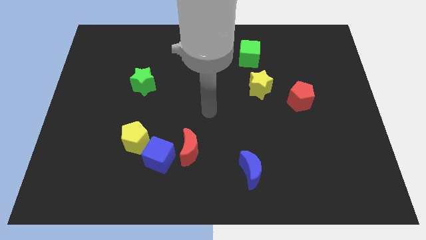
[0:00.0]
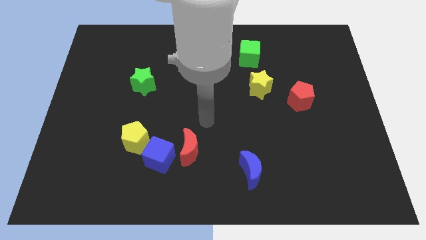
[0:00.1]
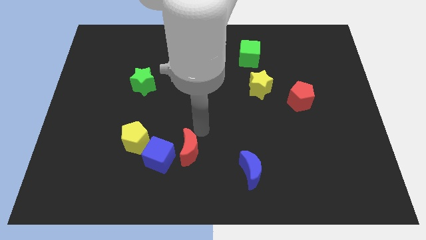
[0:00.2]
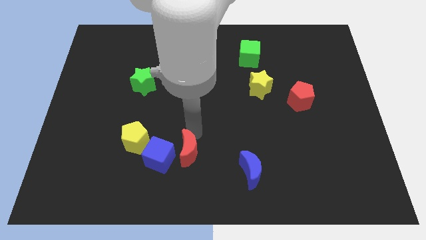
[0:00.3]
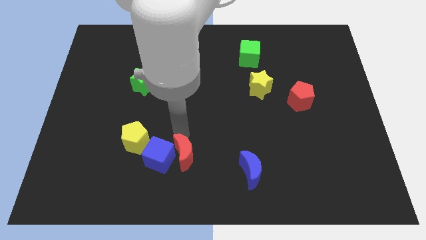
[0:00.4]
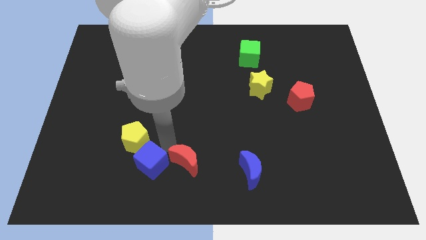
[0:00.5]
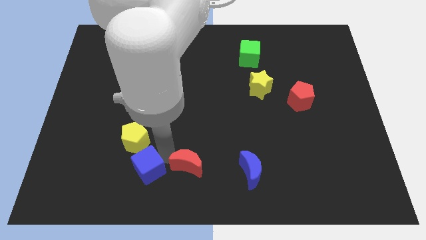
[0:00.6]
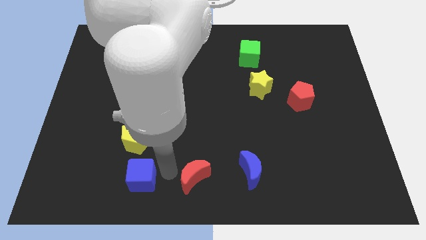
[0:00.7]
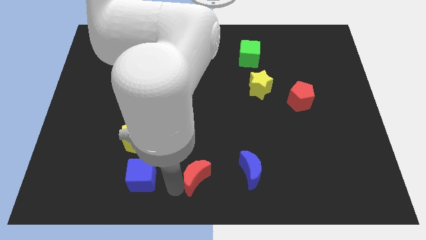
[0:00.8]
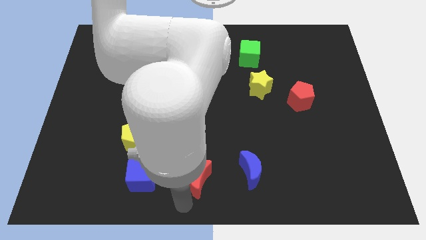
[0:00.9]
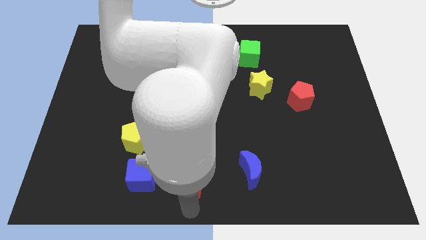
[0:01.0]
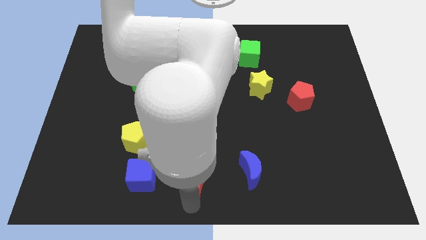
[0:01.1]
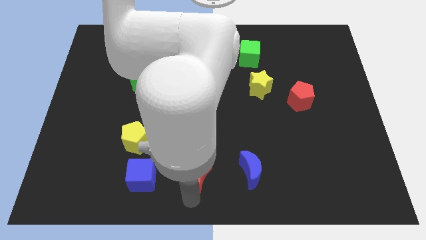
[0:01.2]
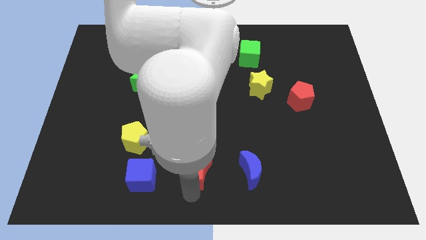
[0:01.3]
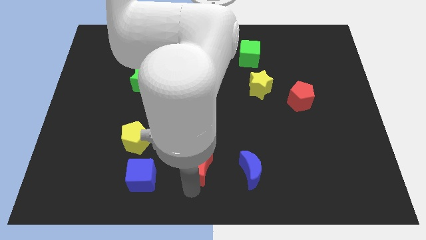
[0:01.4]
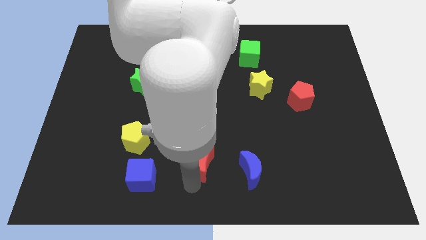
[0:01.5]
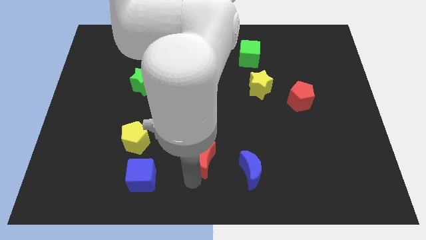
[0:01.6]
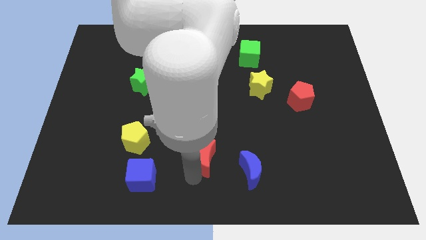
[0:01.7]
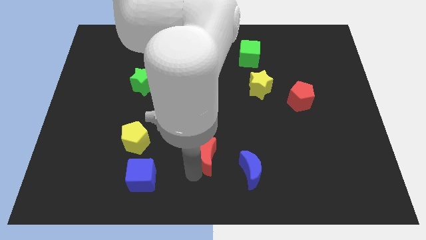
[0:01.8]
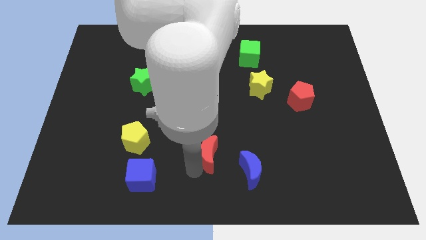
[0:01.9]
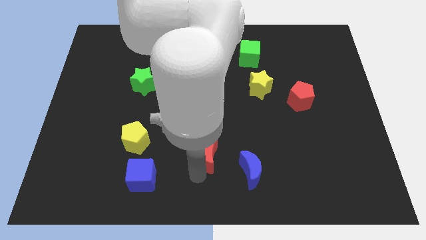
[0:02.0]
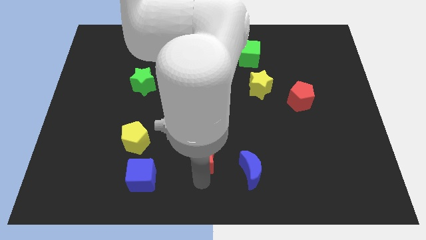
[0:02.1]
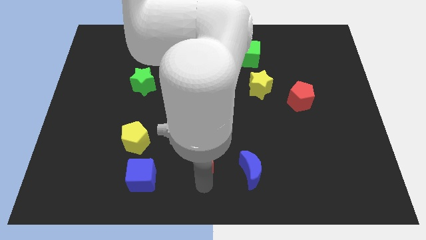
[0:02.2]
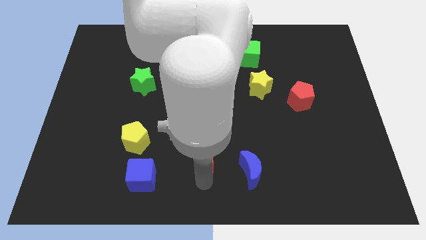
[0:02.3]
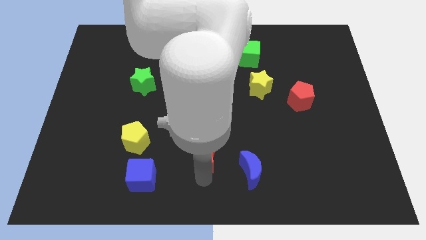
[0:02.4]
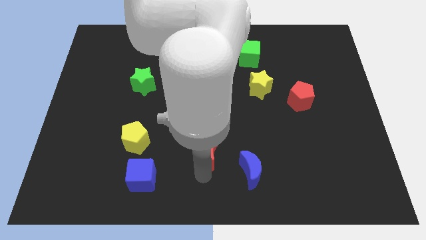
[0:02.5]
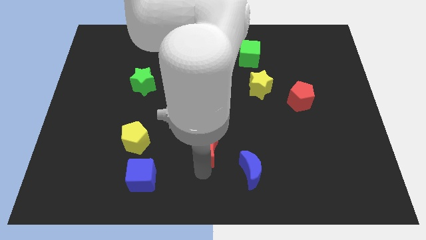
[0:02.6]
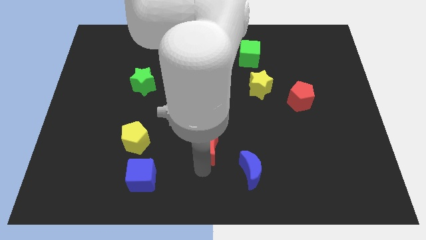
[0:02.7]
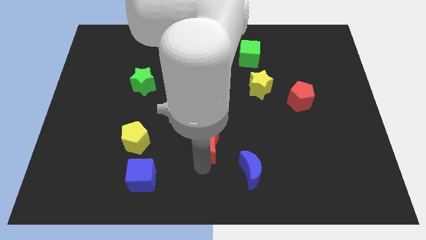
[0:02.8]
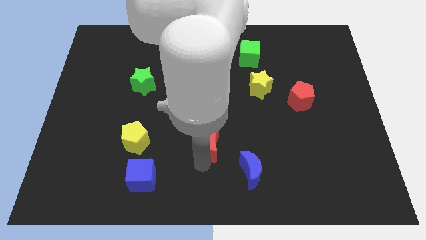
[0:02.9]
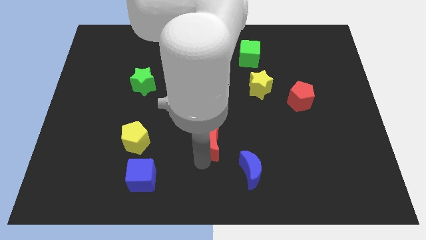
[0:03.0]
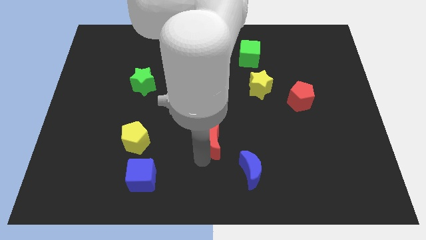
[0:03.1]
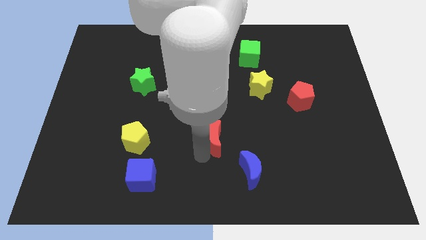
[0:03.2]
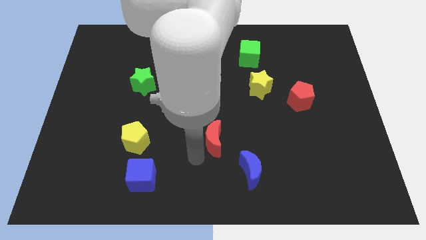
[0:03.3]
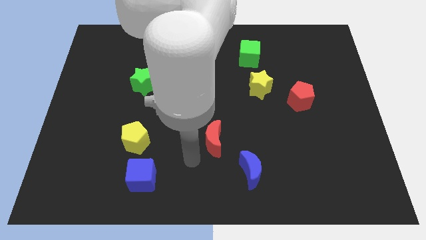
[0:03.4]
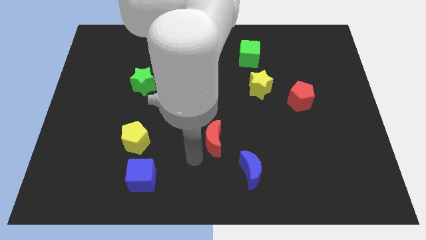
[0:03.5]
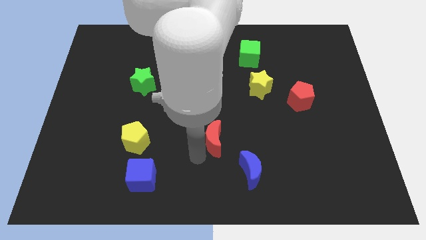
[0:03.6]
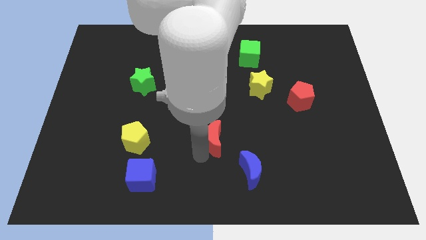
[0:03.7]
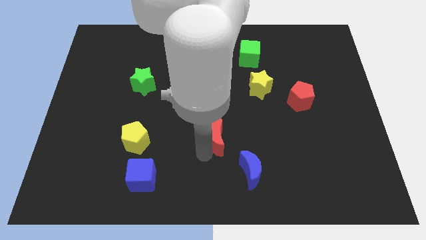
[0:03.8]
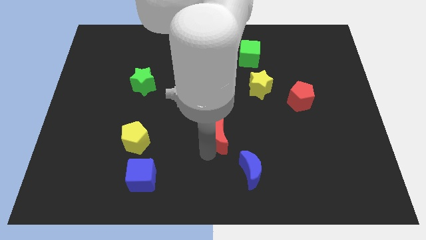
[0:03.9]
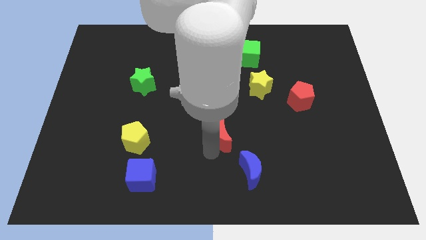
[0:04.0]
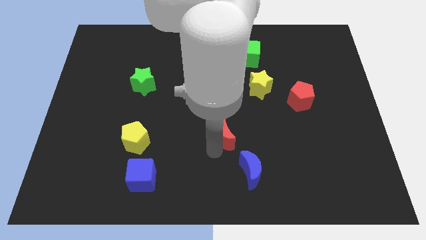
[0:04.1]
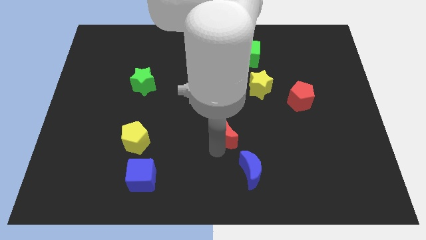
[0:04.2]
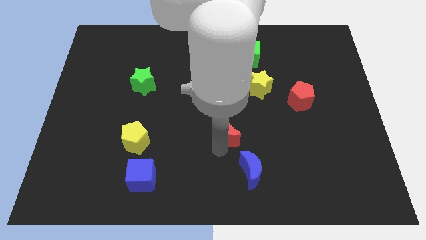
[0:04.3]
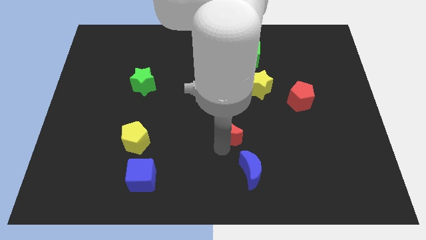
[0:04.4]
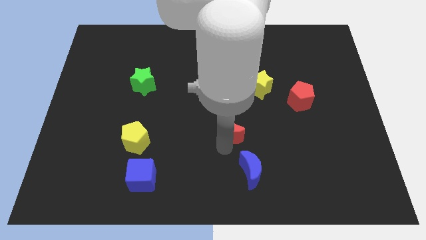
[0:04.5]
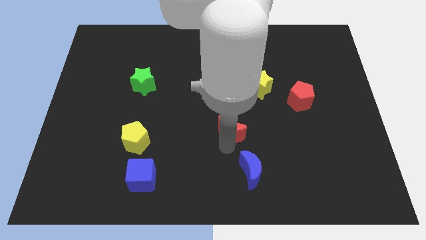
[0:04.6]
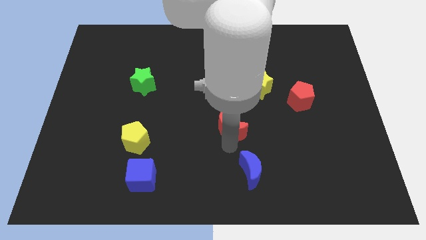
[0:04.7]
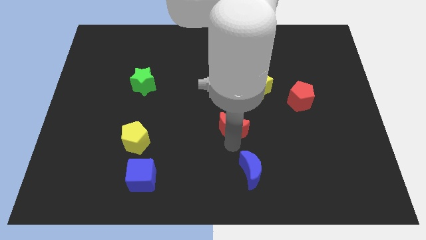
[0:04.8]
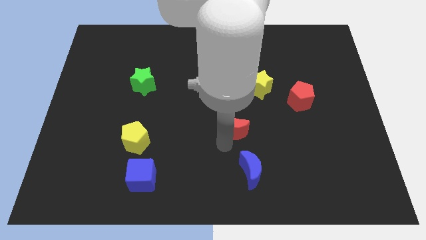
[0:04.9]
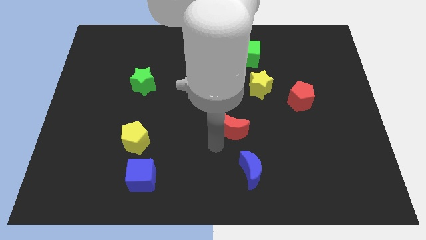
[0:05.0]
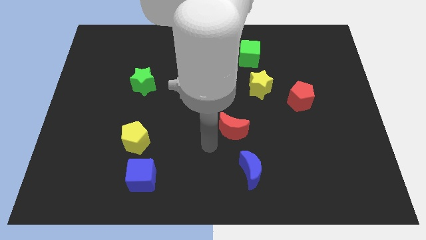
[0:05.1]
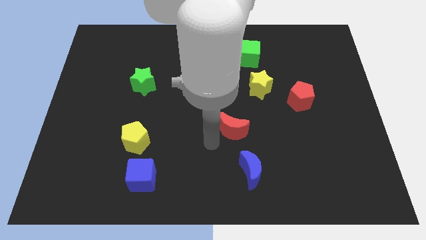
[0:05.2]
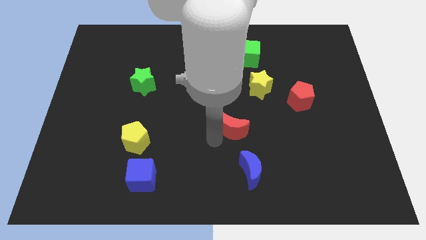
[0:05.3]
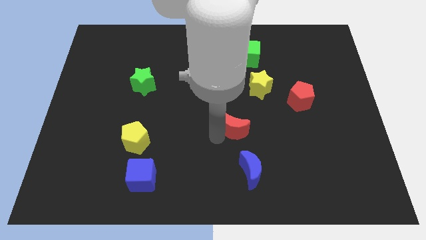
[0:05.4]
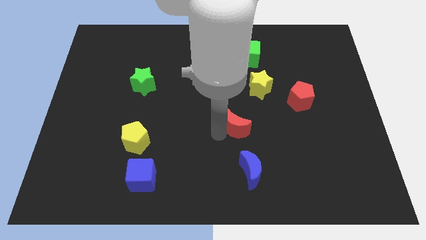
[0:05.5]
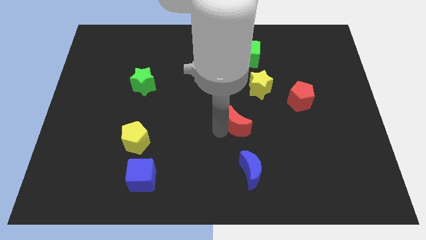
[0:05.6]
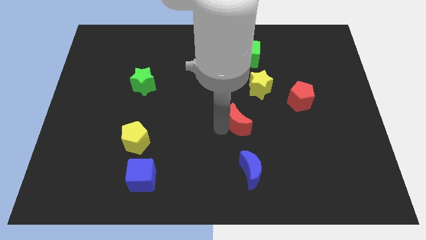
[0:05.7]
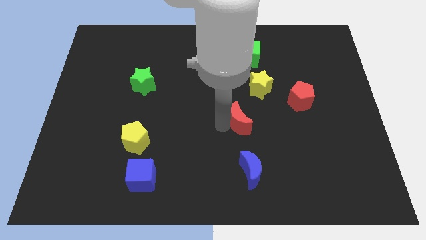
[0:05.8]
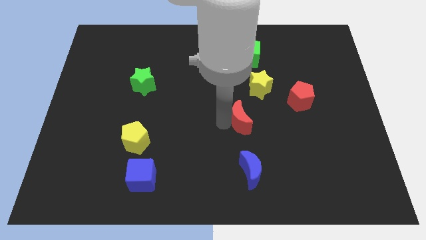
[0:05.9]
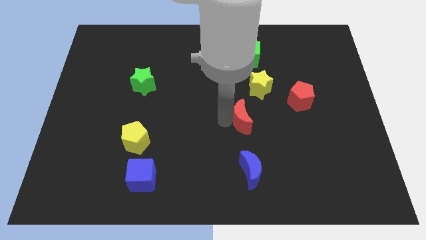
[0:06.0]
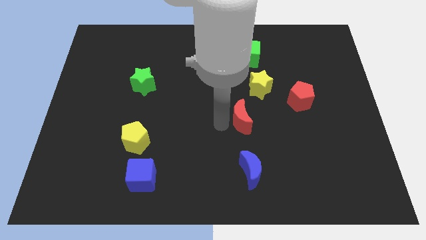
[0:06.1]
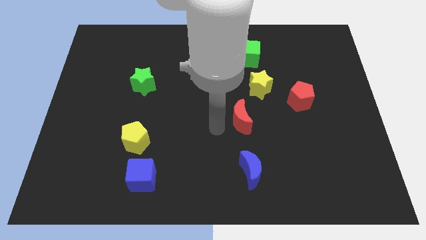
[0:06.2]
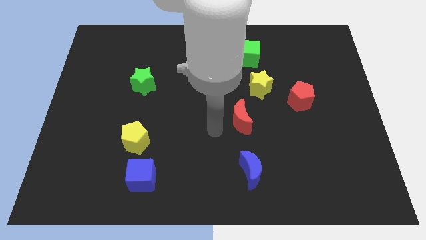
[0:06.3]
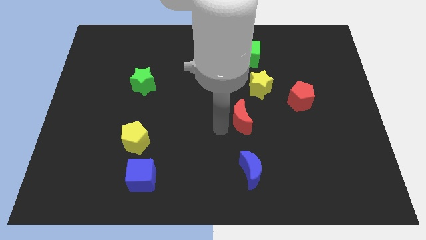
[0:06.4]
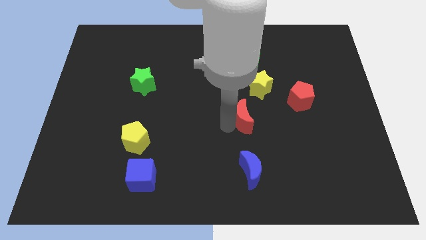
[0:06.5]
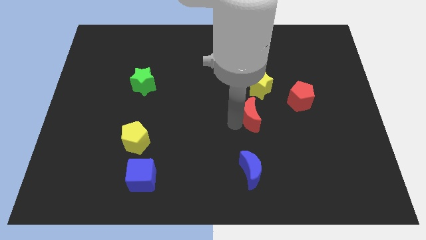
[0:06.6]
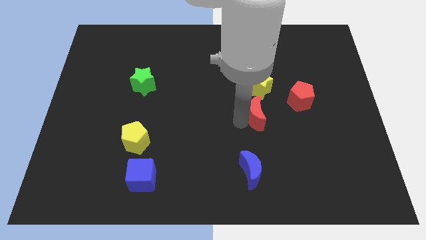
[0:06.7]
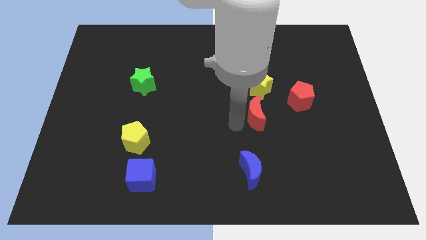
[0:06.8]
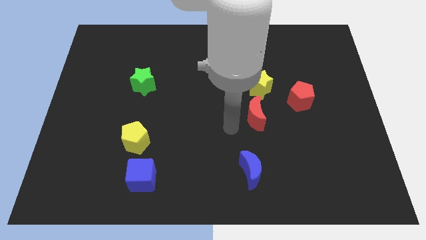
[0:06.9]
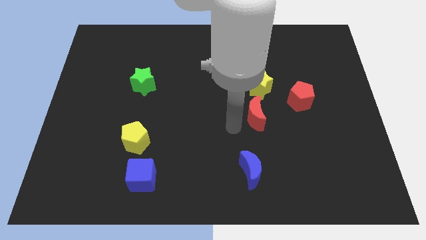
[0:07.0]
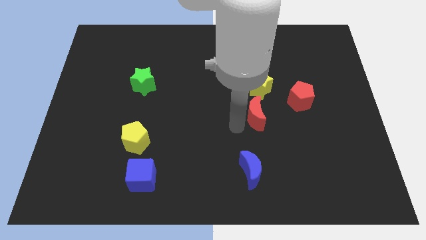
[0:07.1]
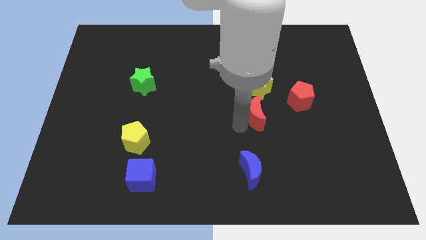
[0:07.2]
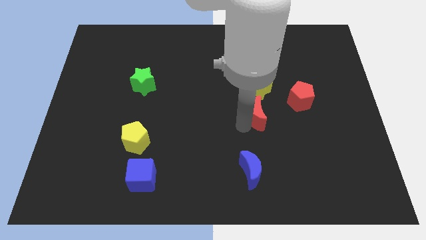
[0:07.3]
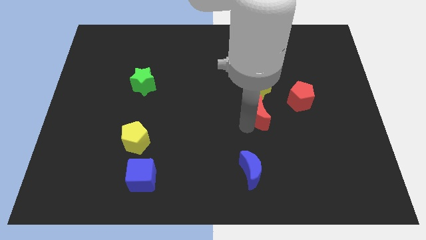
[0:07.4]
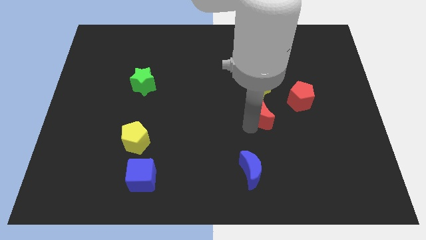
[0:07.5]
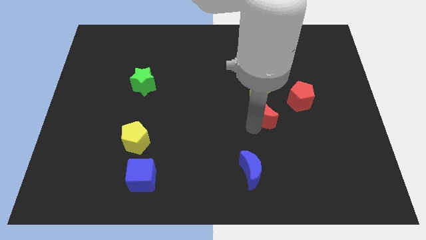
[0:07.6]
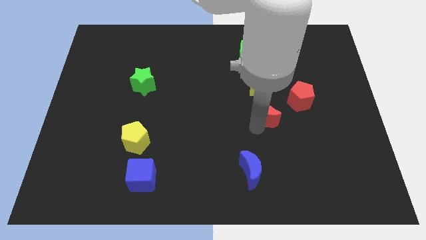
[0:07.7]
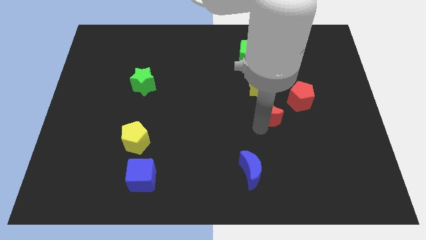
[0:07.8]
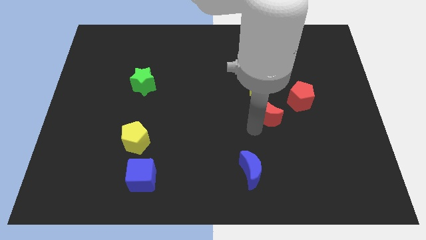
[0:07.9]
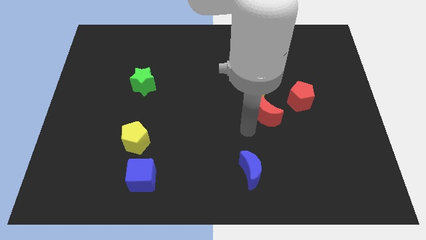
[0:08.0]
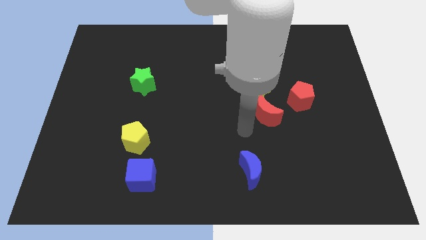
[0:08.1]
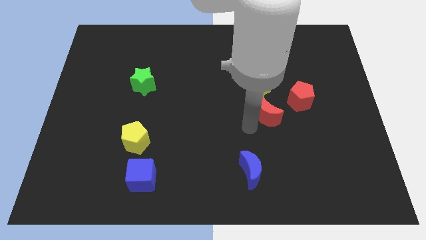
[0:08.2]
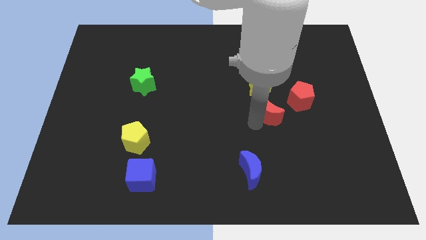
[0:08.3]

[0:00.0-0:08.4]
push the red moon to the bottom right of the yellow star
